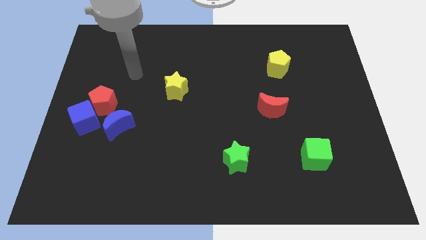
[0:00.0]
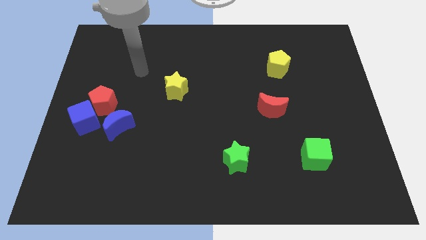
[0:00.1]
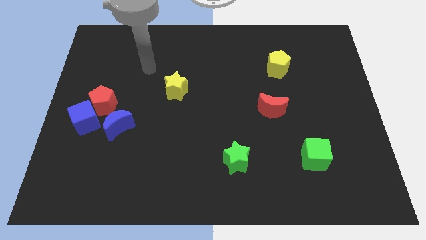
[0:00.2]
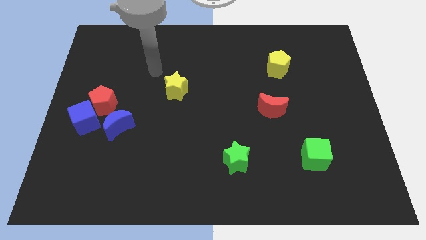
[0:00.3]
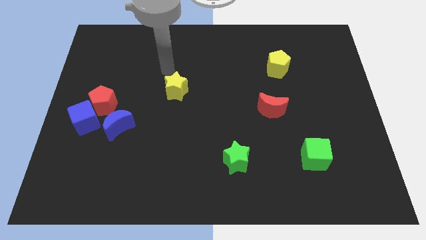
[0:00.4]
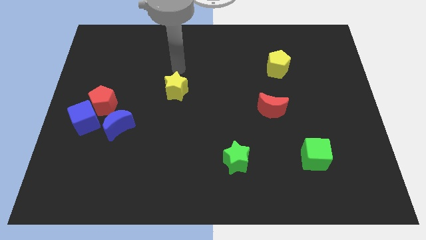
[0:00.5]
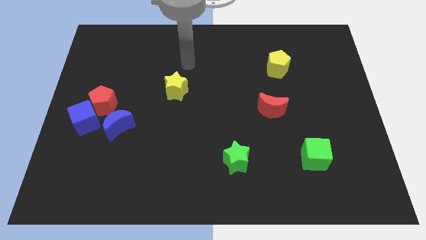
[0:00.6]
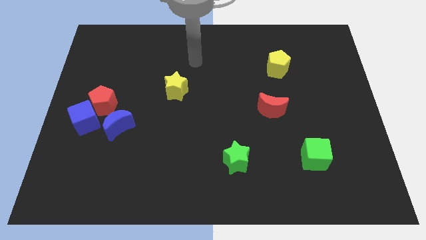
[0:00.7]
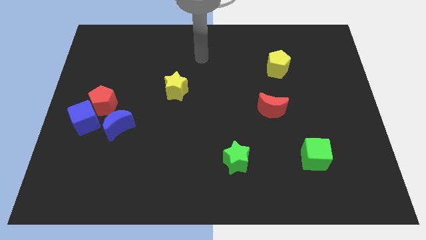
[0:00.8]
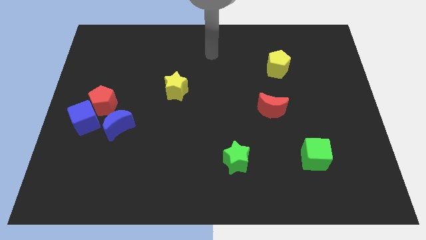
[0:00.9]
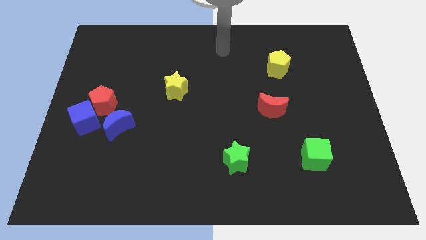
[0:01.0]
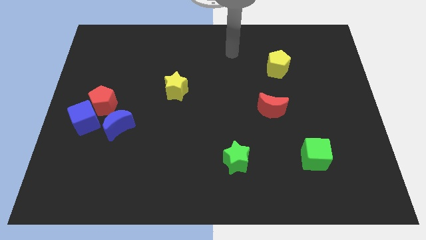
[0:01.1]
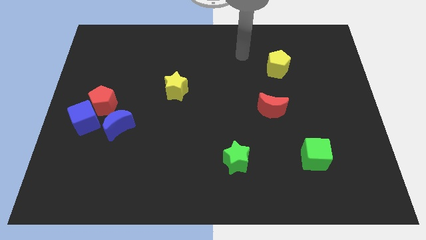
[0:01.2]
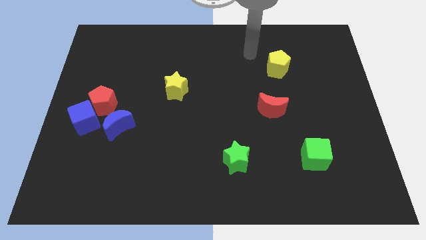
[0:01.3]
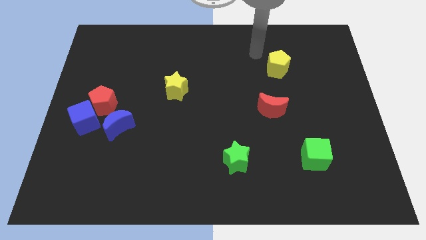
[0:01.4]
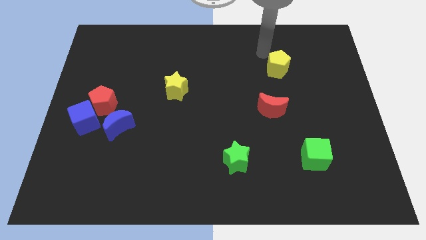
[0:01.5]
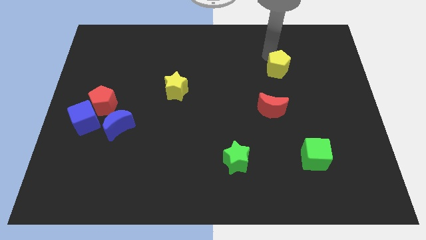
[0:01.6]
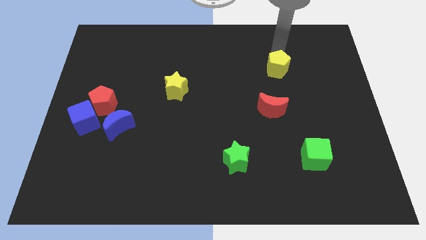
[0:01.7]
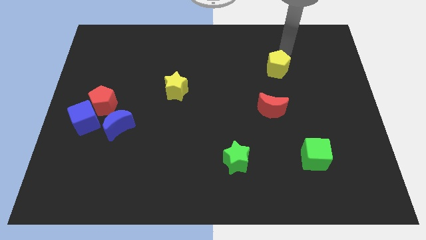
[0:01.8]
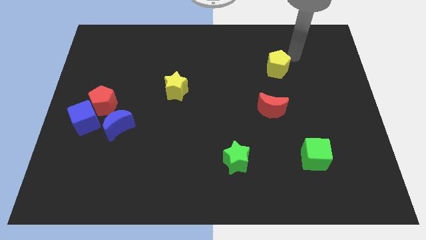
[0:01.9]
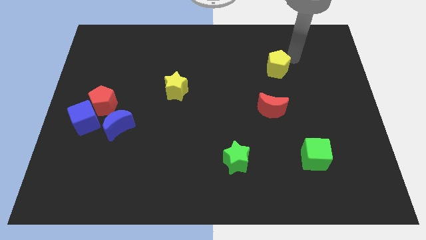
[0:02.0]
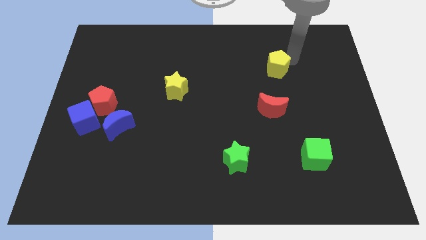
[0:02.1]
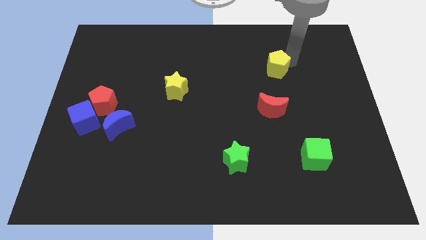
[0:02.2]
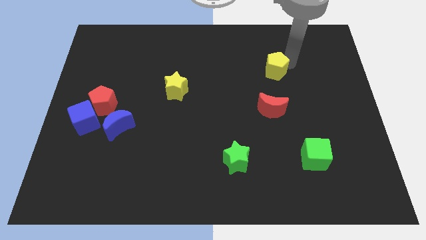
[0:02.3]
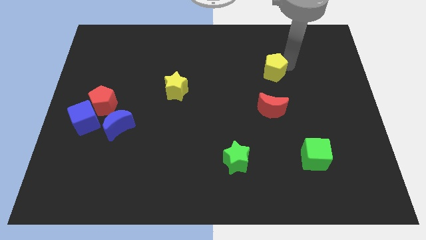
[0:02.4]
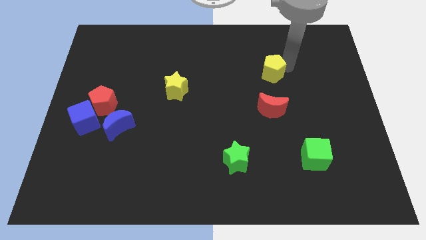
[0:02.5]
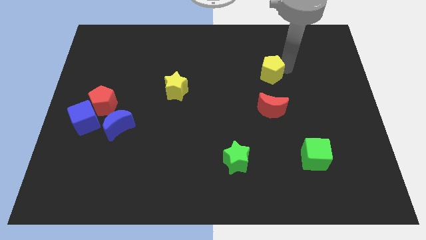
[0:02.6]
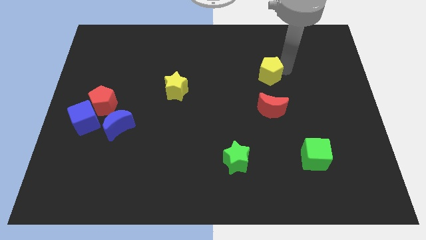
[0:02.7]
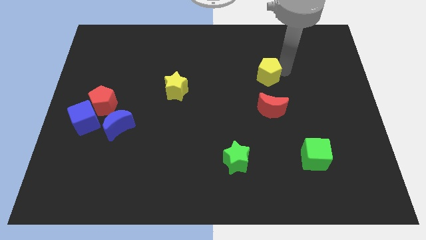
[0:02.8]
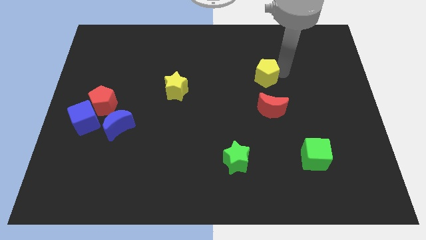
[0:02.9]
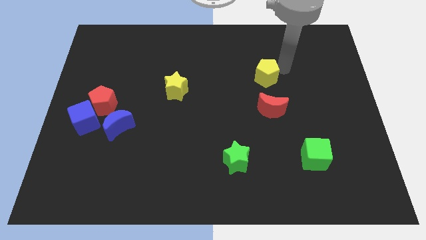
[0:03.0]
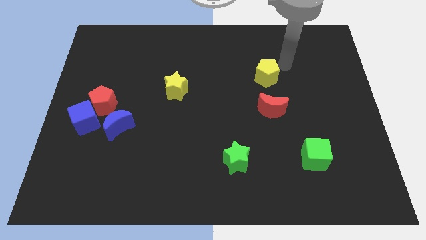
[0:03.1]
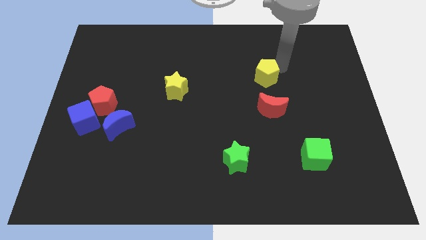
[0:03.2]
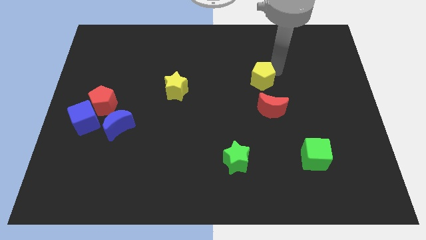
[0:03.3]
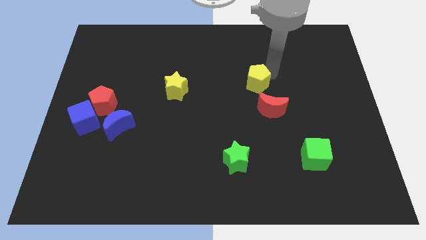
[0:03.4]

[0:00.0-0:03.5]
slide the yellow pentagon downwards and to the left a little bit

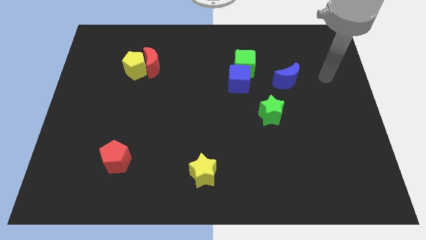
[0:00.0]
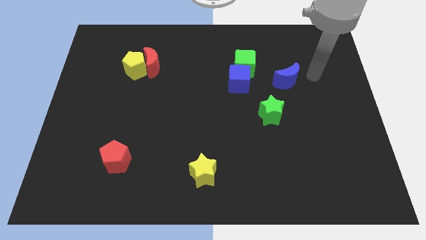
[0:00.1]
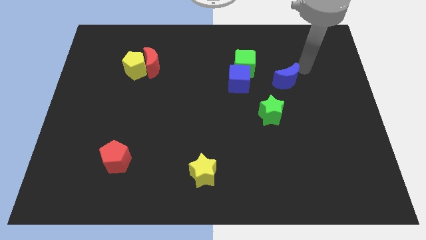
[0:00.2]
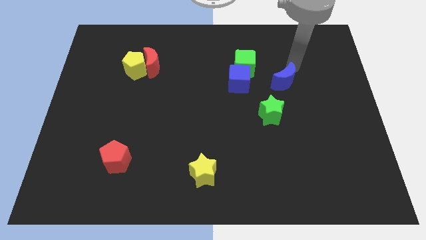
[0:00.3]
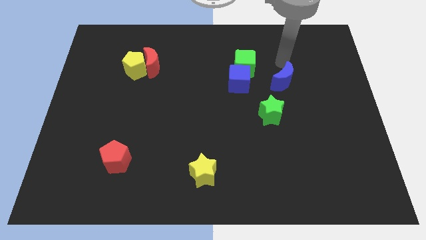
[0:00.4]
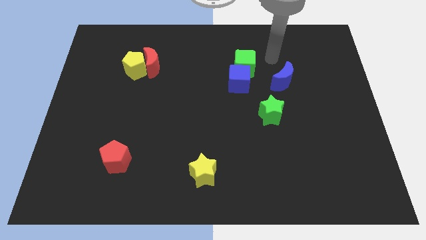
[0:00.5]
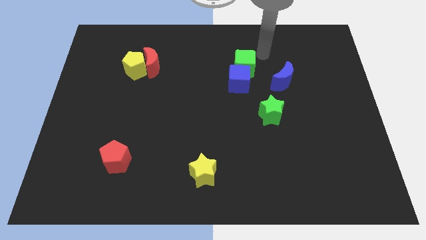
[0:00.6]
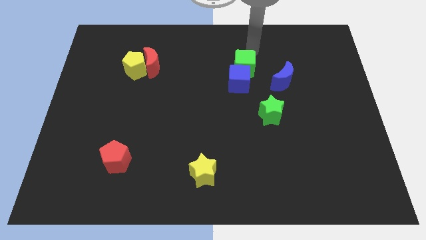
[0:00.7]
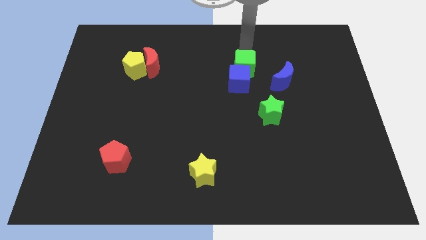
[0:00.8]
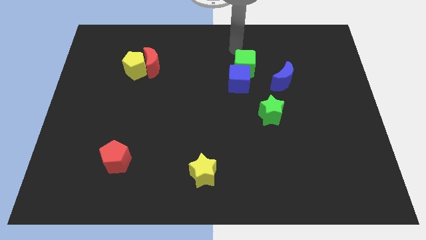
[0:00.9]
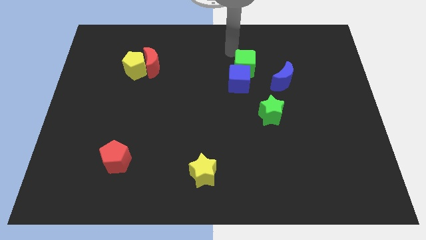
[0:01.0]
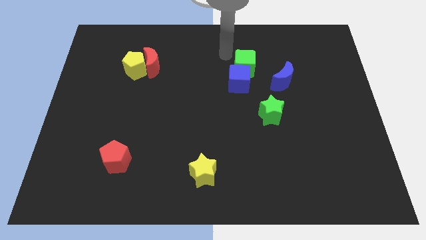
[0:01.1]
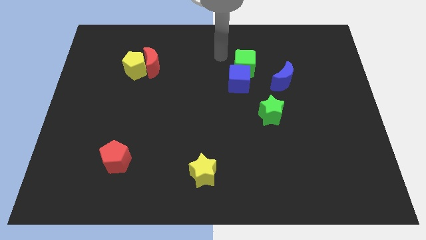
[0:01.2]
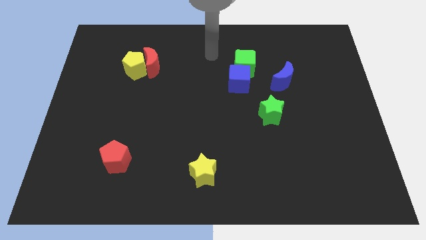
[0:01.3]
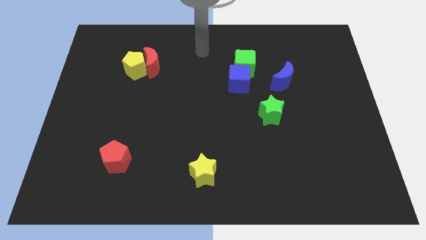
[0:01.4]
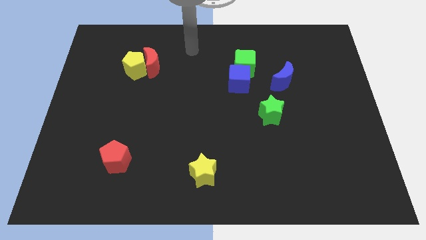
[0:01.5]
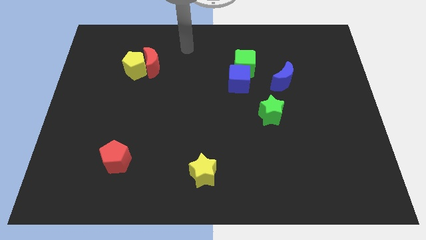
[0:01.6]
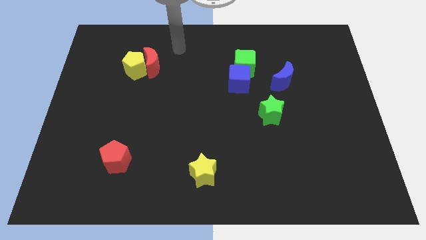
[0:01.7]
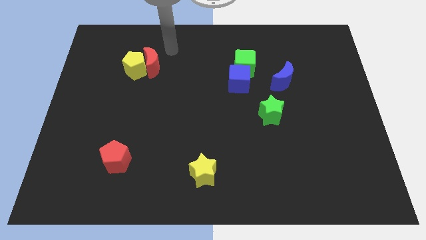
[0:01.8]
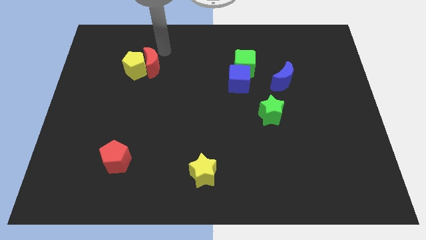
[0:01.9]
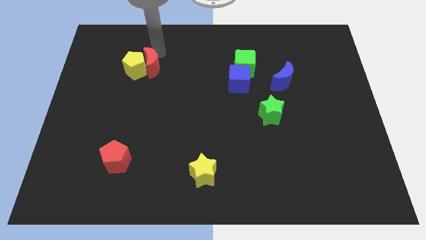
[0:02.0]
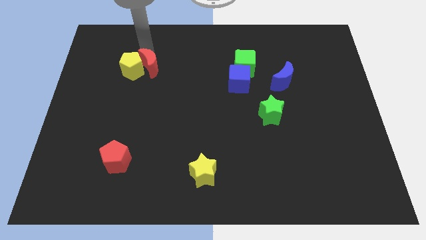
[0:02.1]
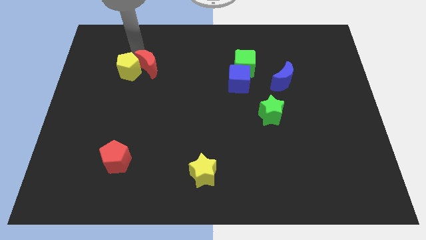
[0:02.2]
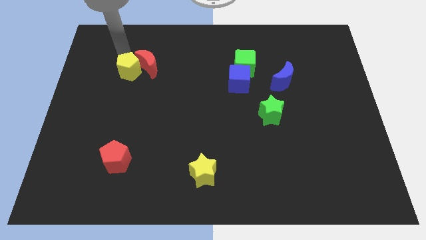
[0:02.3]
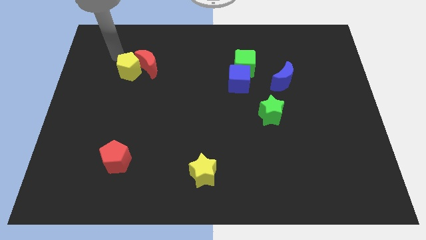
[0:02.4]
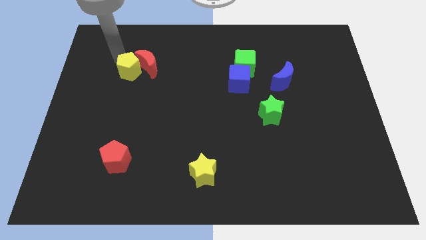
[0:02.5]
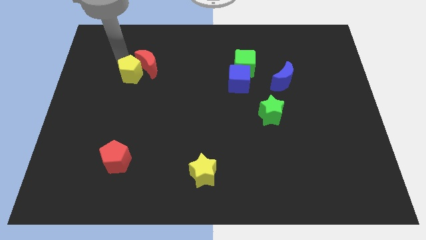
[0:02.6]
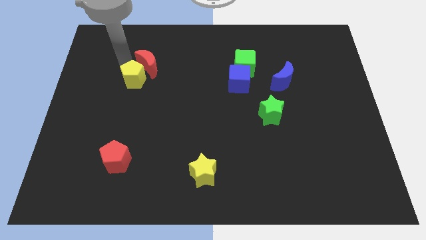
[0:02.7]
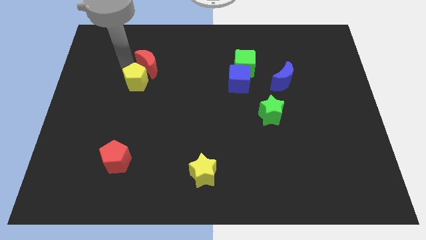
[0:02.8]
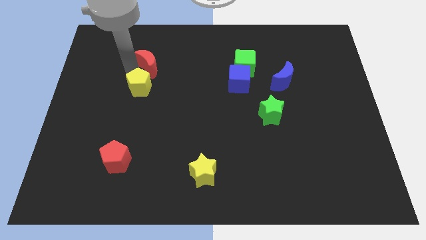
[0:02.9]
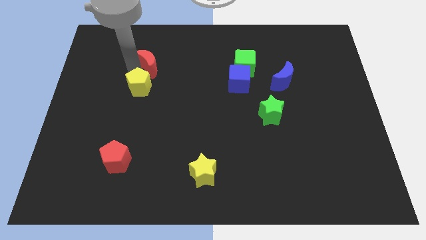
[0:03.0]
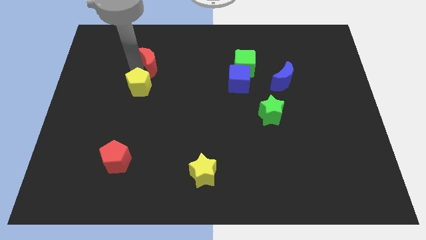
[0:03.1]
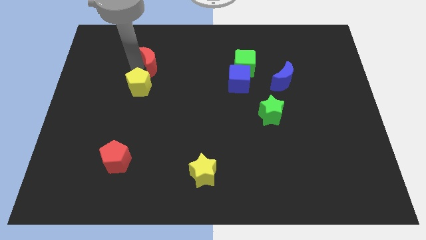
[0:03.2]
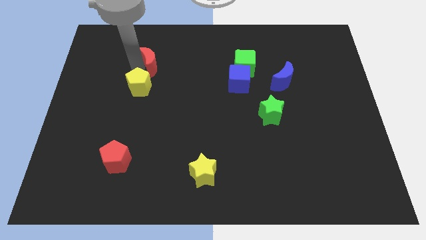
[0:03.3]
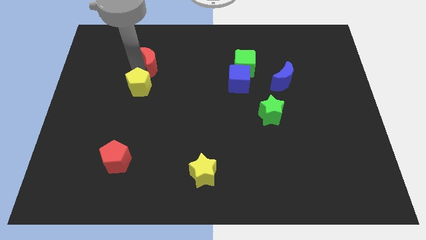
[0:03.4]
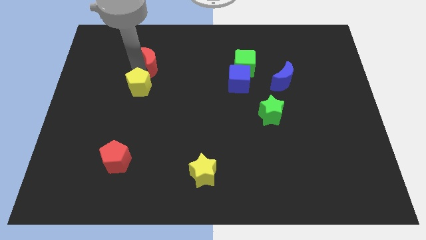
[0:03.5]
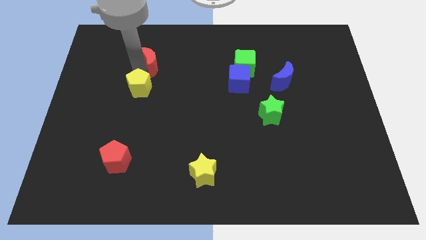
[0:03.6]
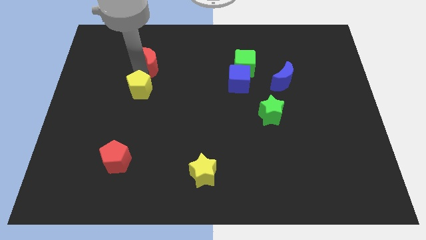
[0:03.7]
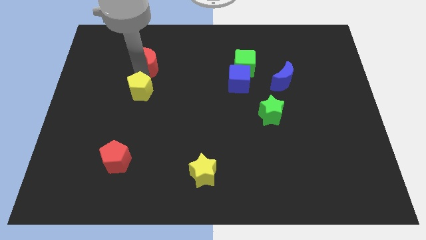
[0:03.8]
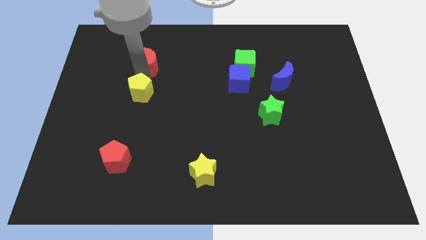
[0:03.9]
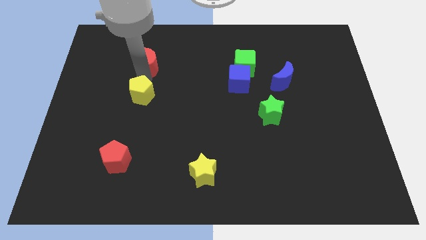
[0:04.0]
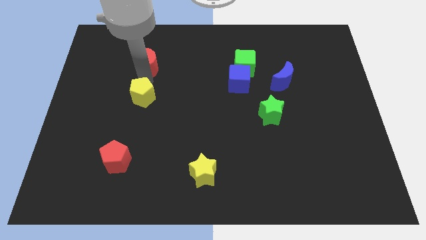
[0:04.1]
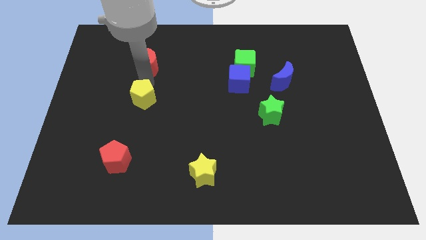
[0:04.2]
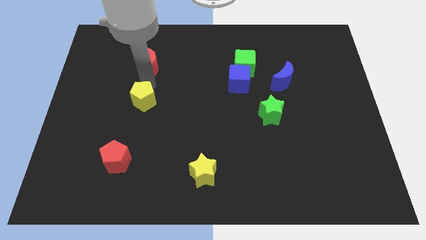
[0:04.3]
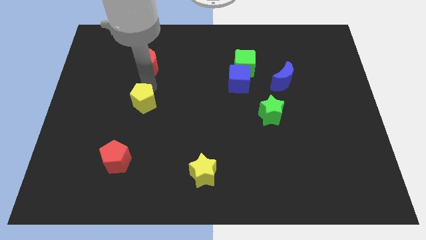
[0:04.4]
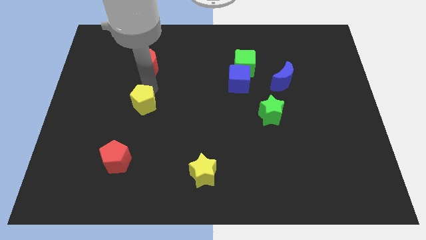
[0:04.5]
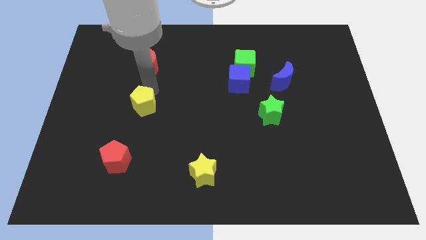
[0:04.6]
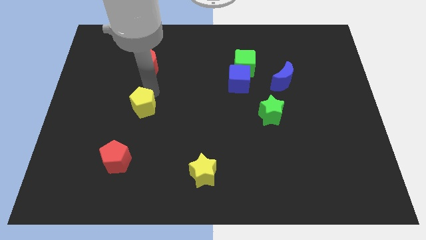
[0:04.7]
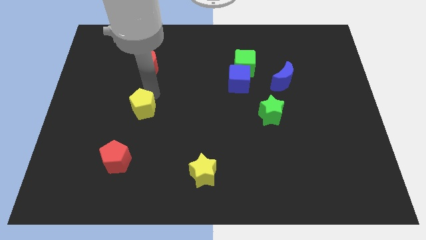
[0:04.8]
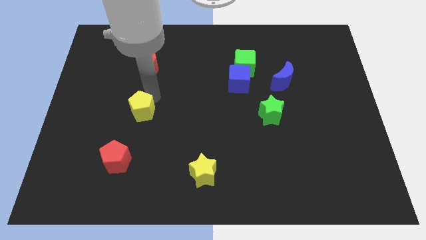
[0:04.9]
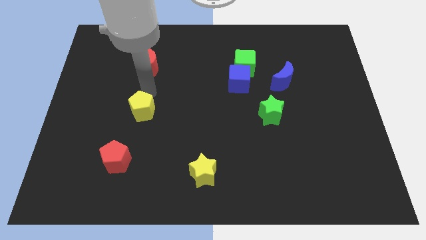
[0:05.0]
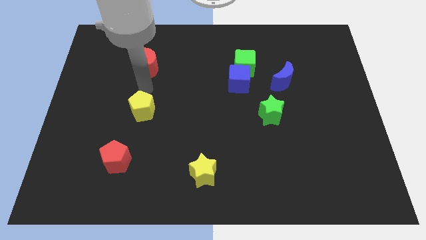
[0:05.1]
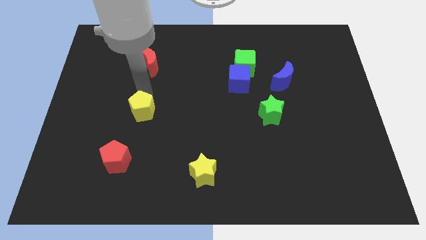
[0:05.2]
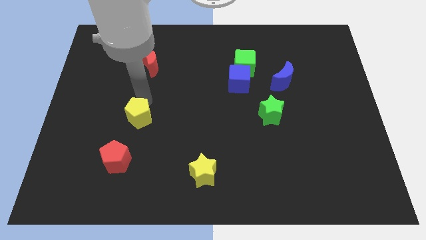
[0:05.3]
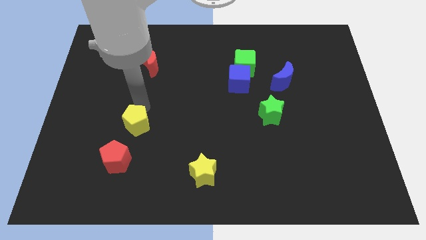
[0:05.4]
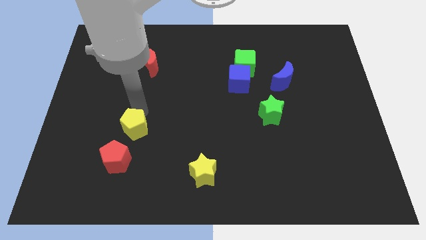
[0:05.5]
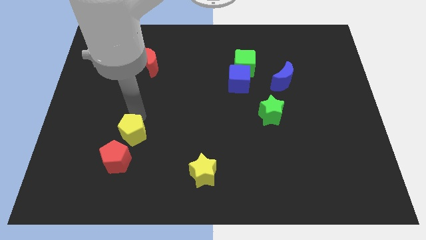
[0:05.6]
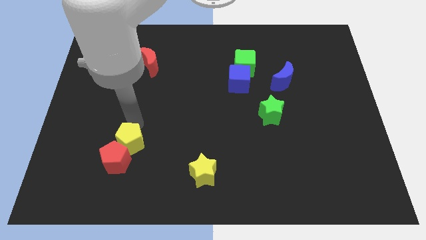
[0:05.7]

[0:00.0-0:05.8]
push the yellow pentagon down
